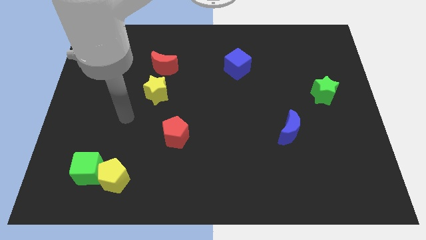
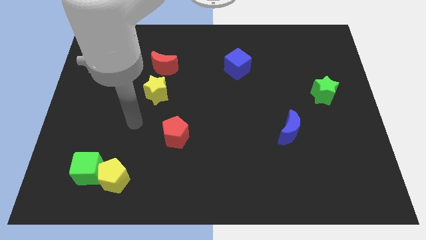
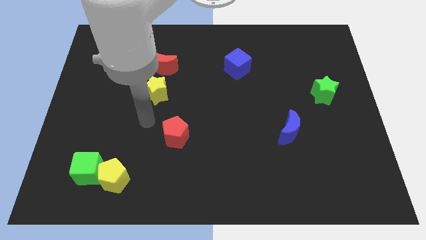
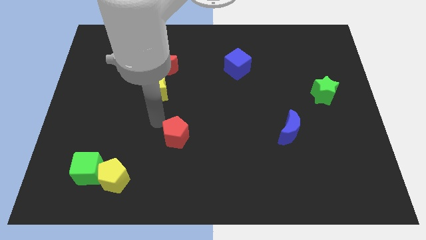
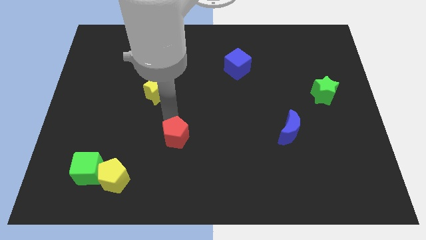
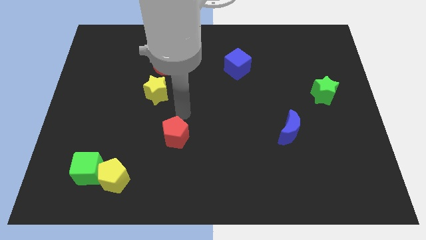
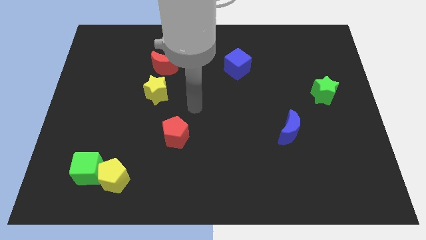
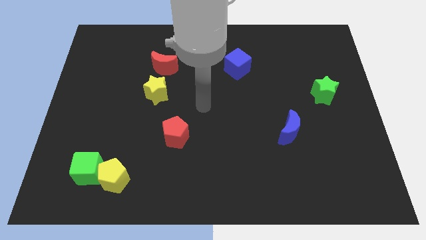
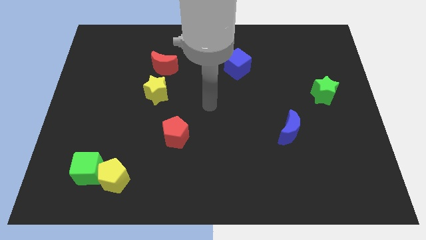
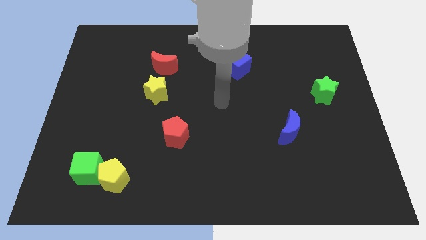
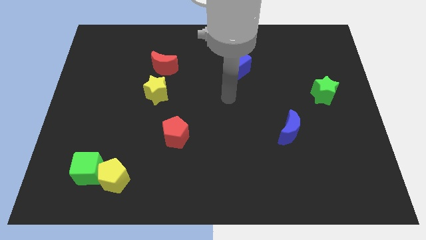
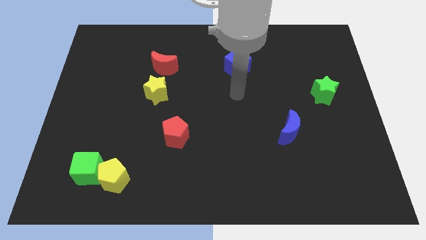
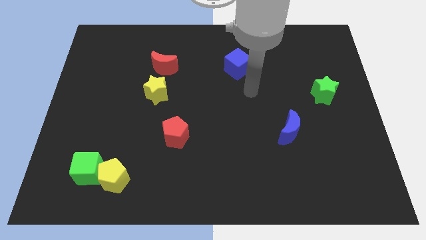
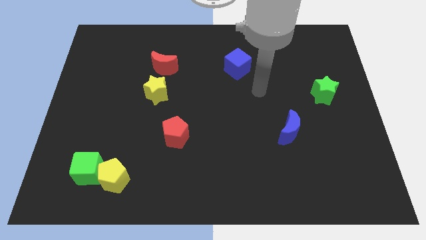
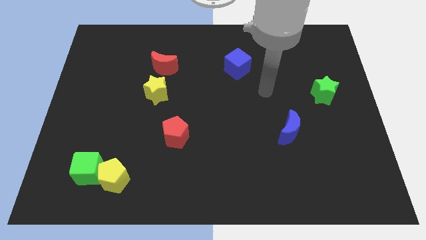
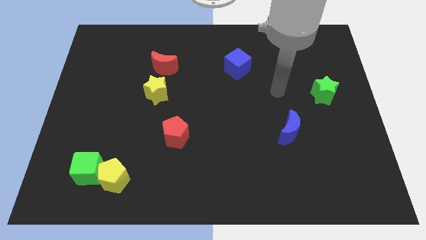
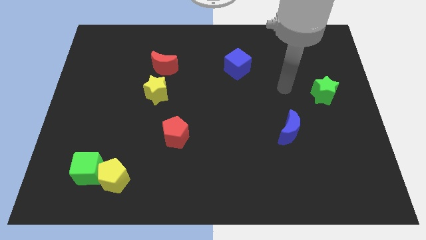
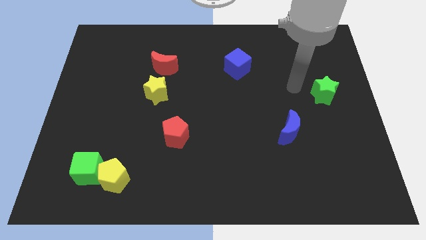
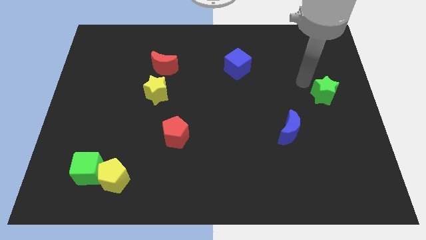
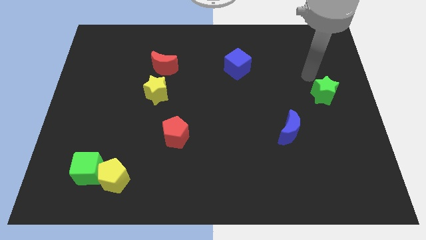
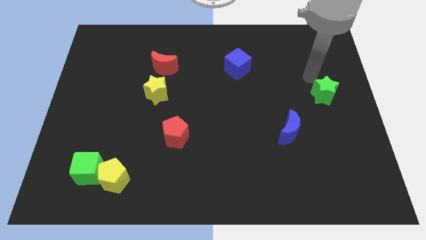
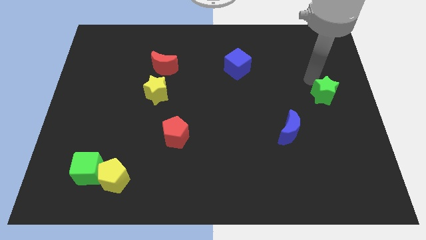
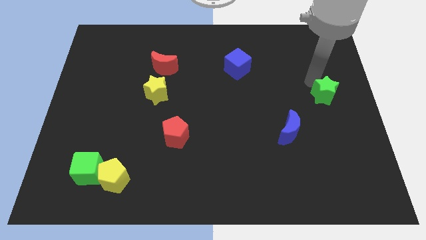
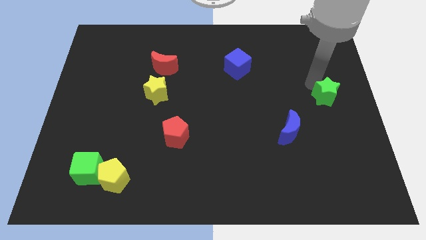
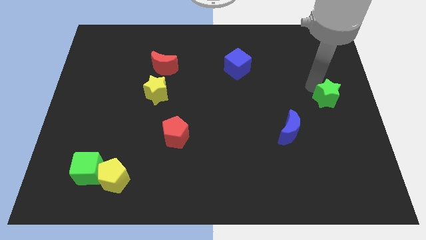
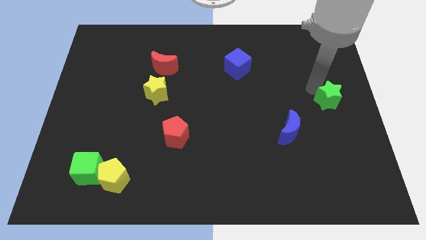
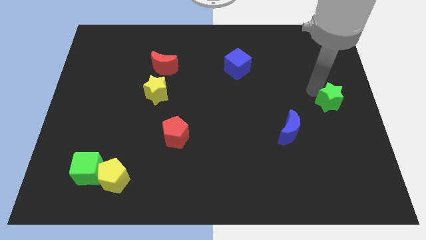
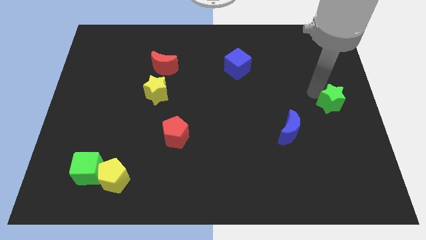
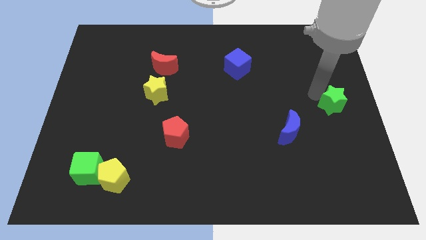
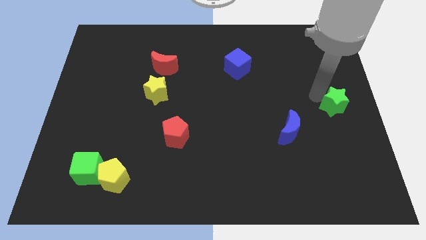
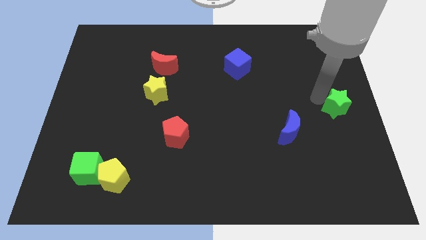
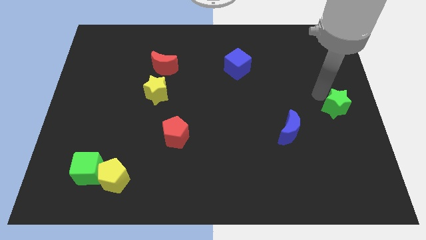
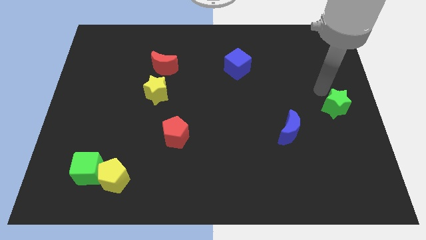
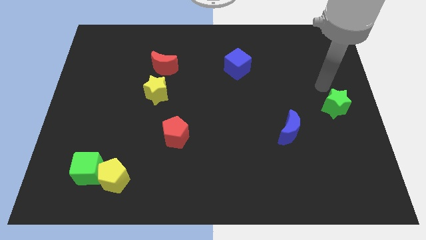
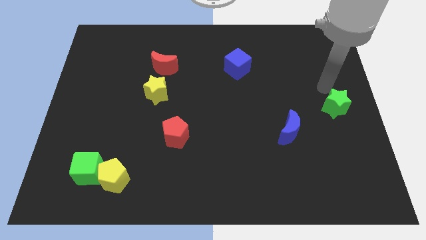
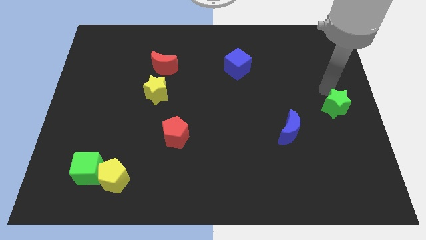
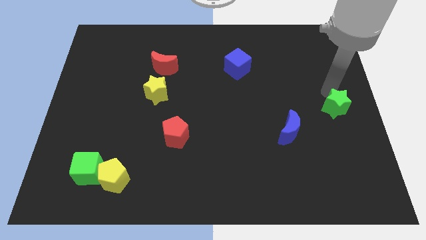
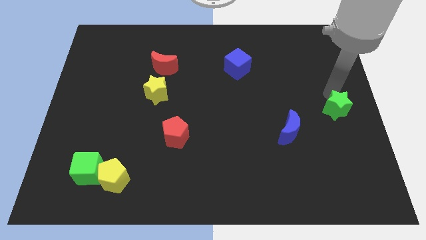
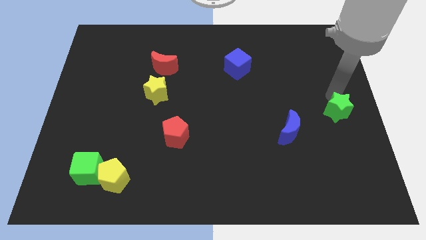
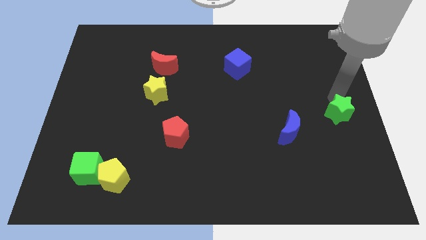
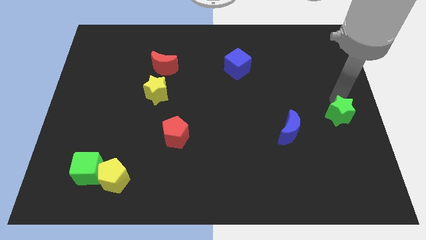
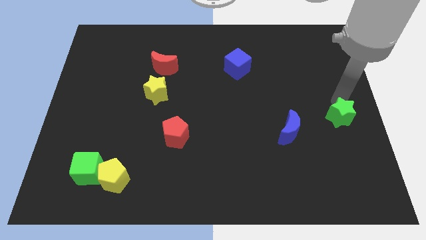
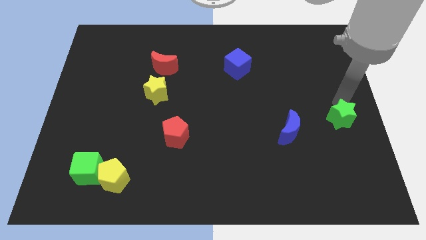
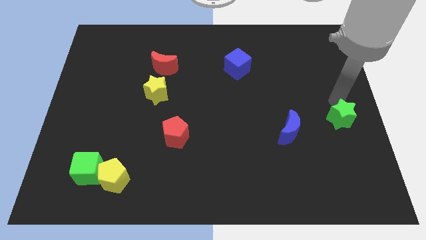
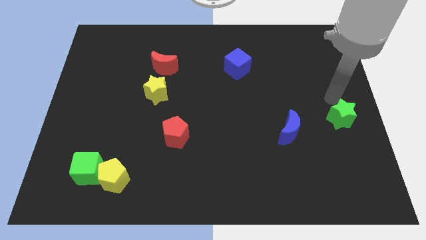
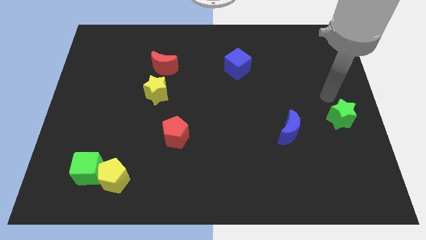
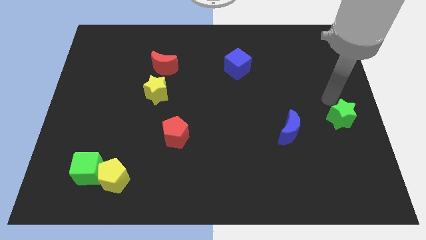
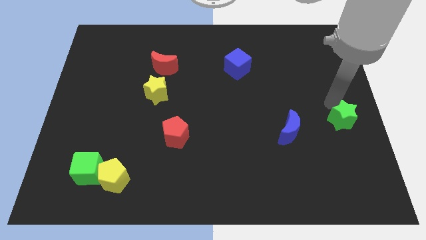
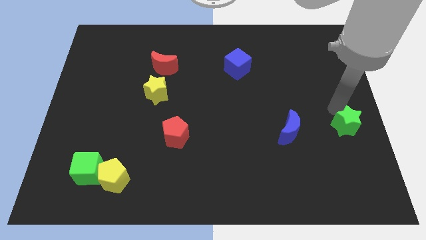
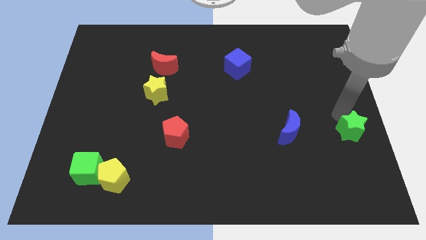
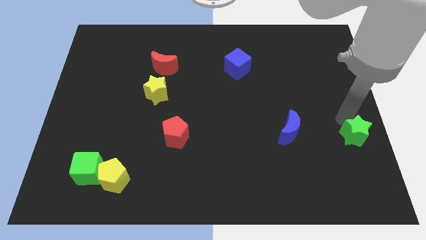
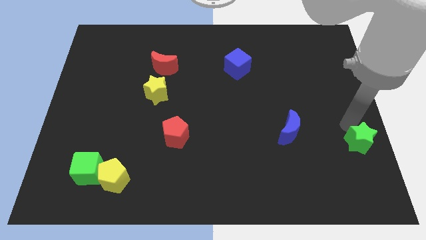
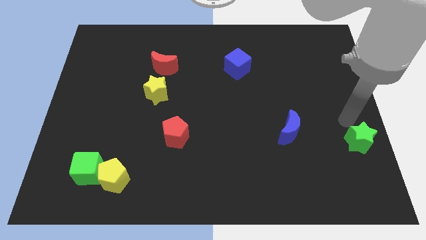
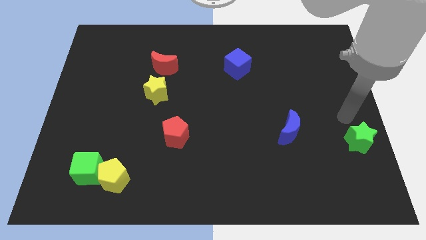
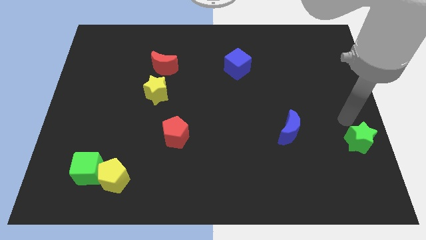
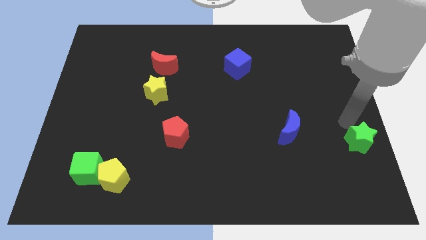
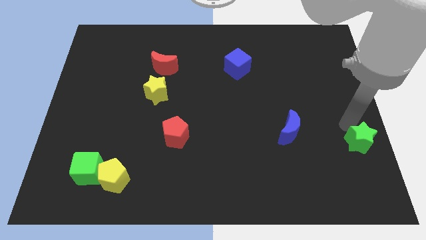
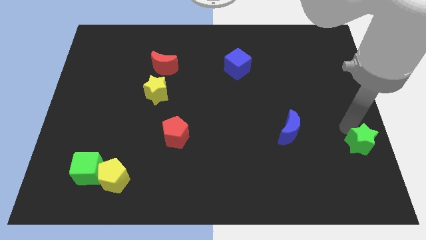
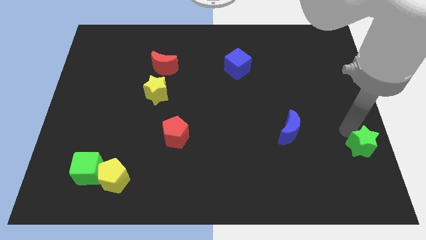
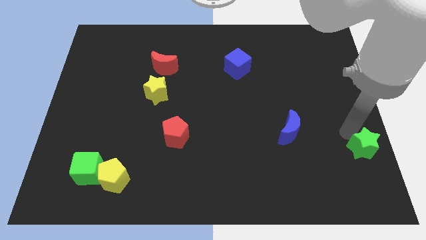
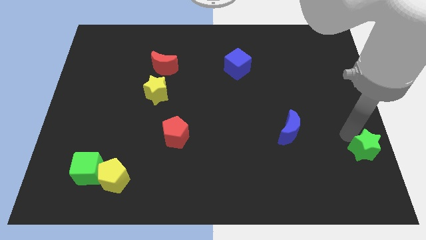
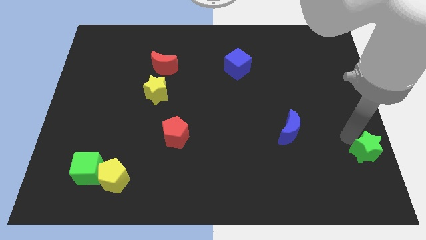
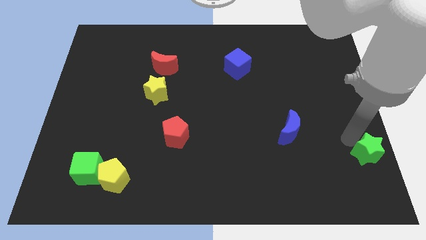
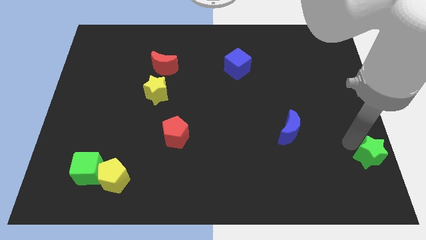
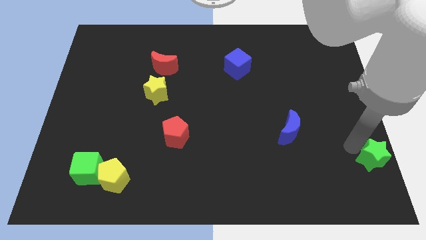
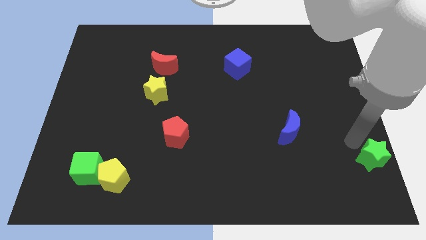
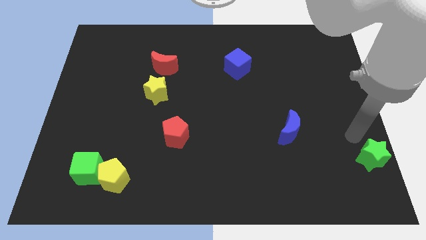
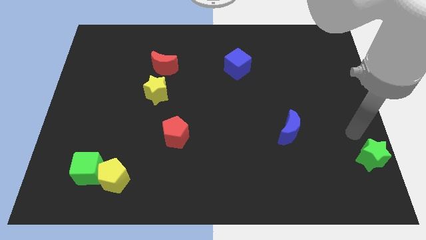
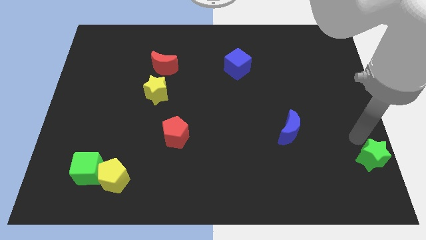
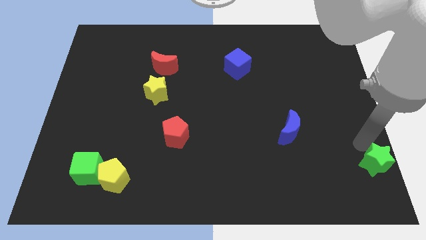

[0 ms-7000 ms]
push the green star to the bottom right corner
